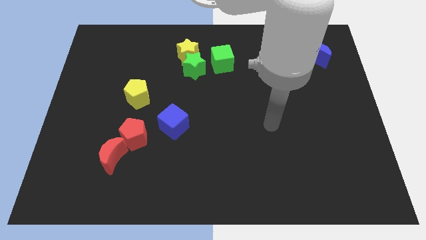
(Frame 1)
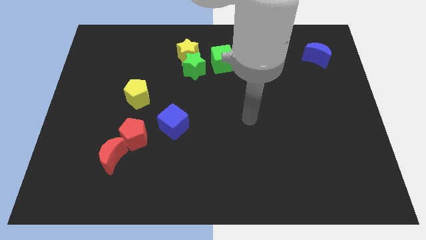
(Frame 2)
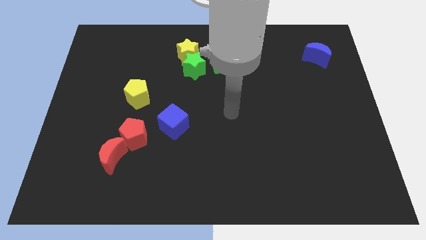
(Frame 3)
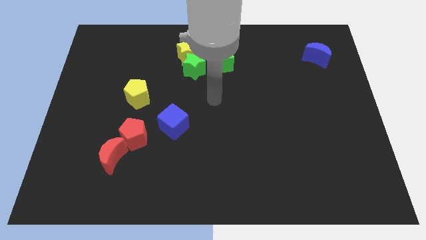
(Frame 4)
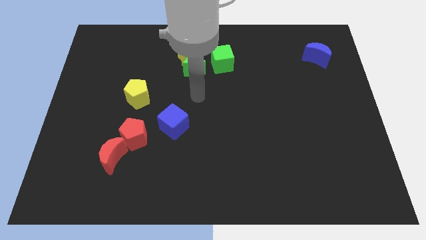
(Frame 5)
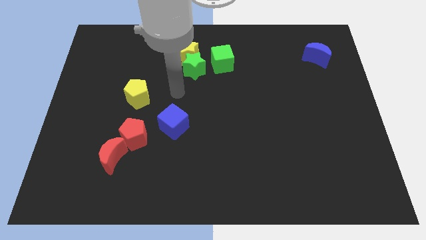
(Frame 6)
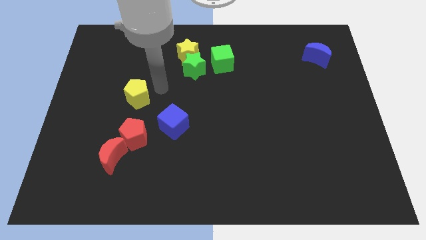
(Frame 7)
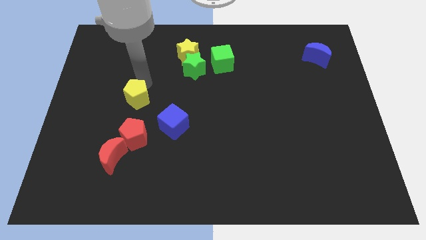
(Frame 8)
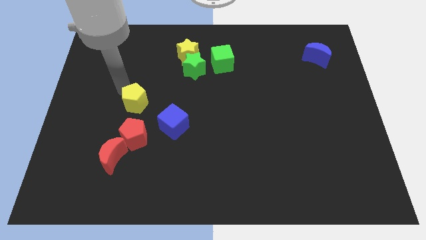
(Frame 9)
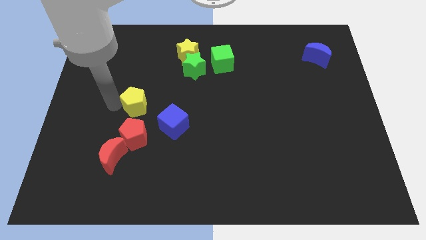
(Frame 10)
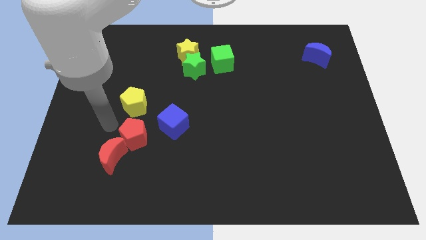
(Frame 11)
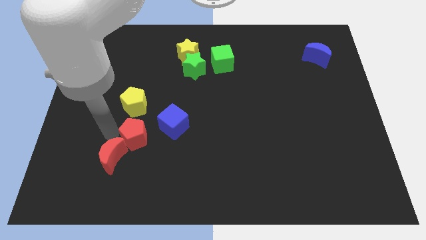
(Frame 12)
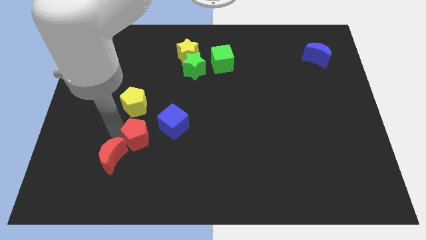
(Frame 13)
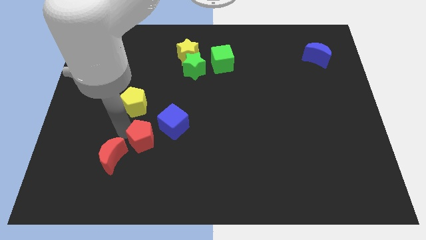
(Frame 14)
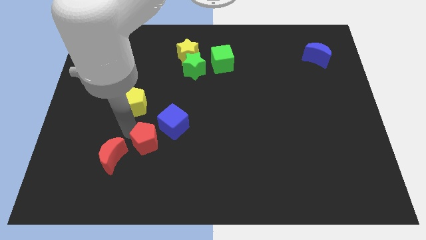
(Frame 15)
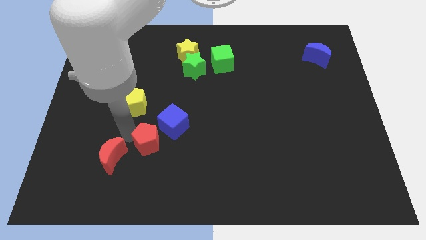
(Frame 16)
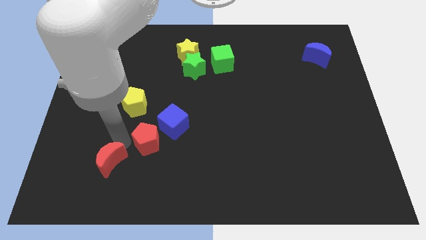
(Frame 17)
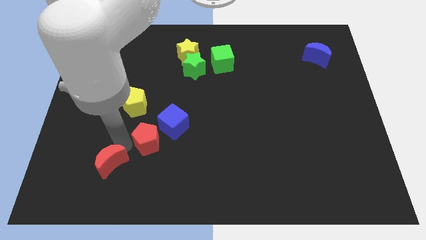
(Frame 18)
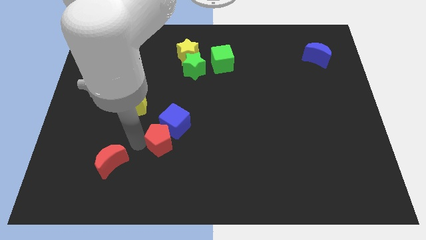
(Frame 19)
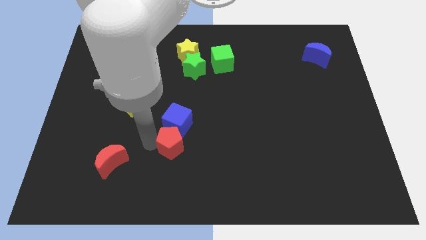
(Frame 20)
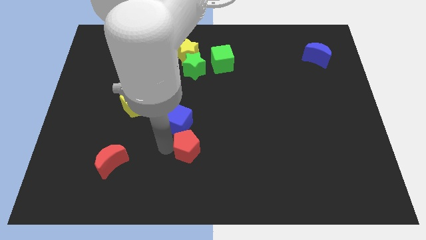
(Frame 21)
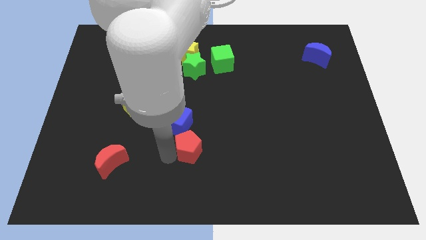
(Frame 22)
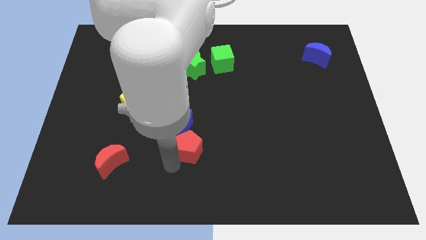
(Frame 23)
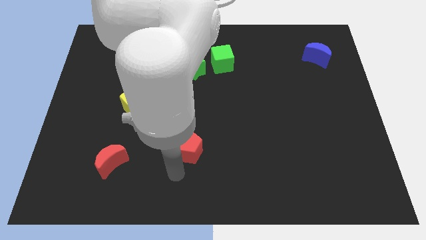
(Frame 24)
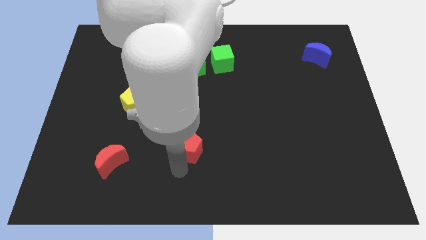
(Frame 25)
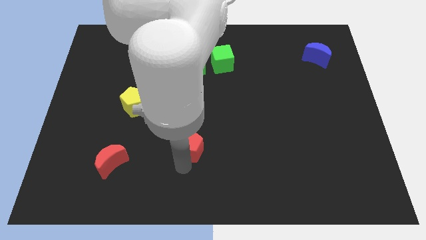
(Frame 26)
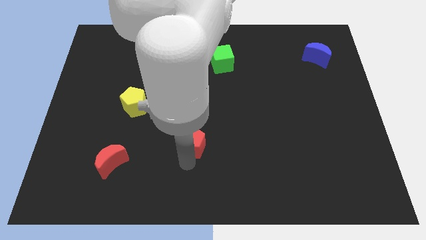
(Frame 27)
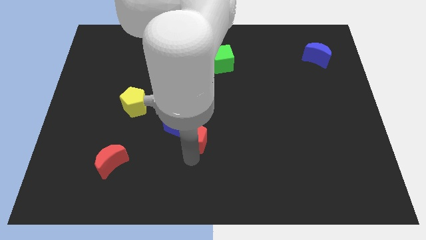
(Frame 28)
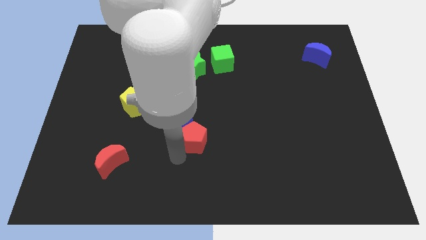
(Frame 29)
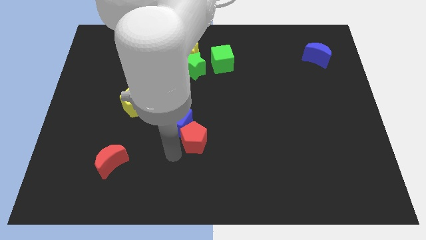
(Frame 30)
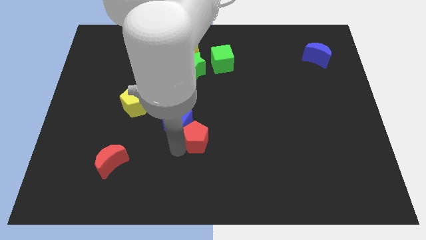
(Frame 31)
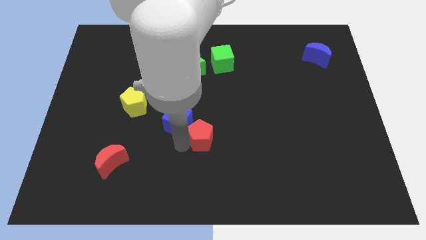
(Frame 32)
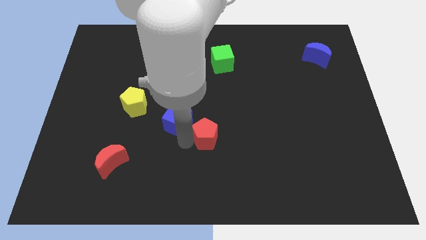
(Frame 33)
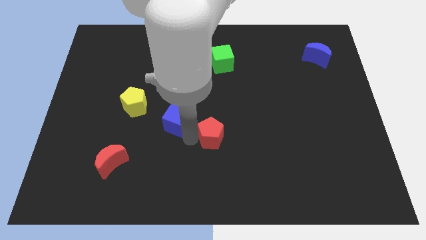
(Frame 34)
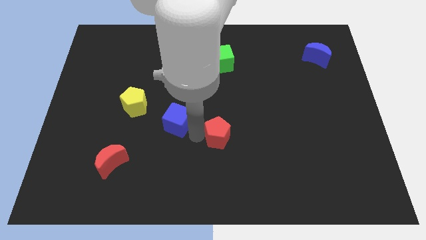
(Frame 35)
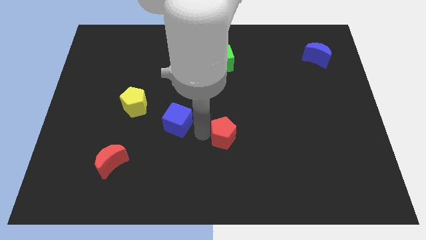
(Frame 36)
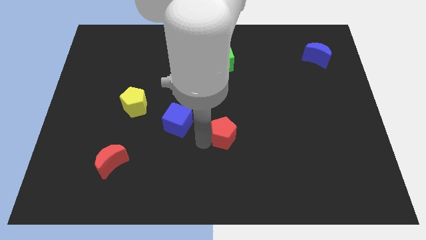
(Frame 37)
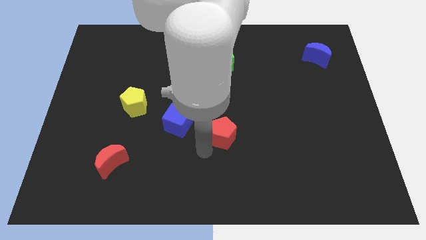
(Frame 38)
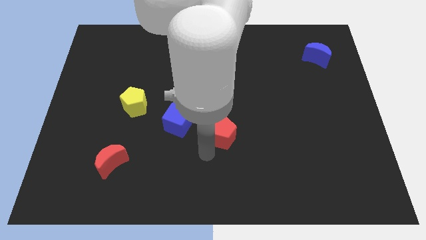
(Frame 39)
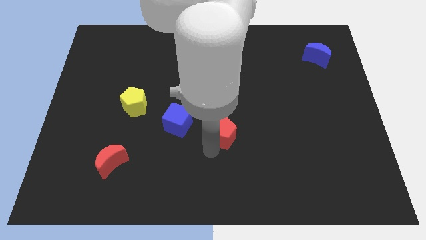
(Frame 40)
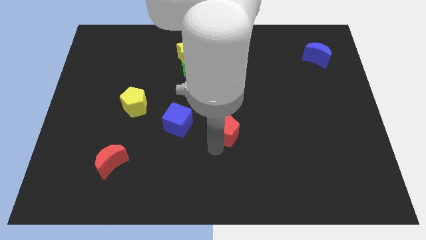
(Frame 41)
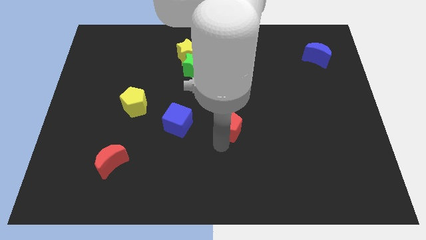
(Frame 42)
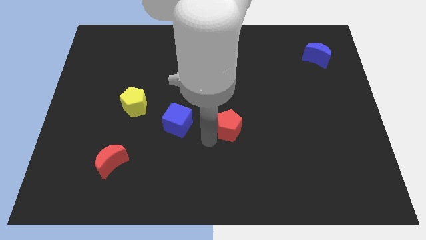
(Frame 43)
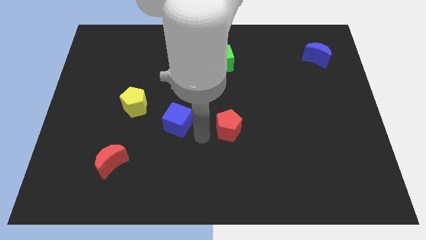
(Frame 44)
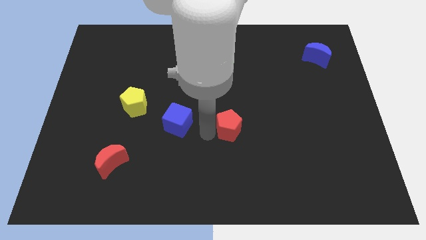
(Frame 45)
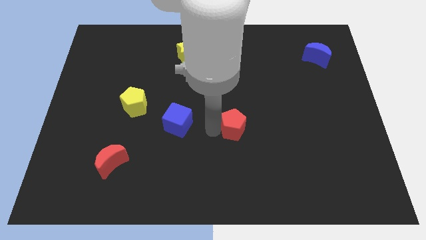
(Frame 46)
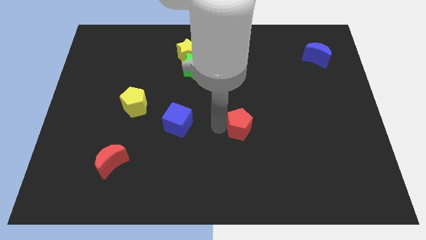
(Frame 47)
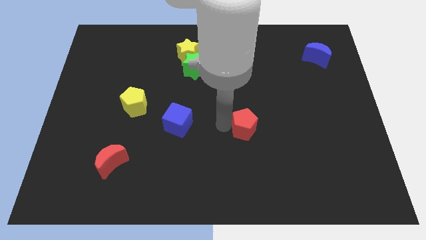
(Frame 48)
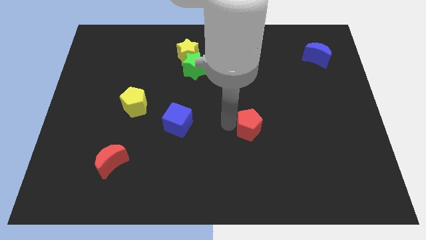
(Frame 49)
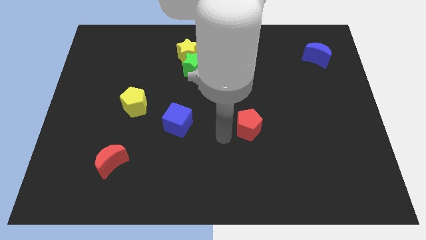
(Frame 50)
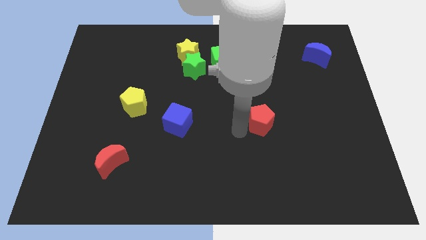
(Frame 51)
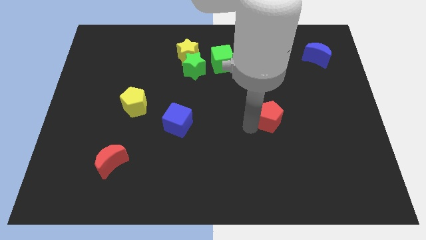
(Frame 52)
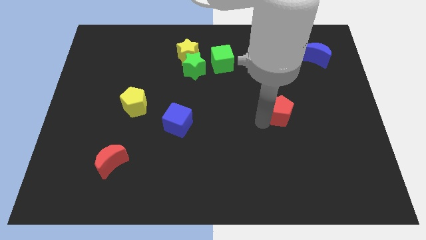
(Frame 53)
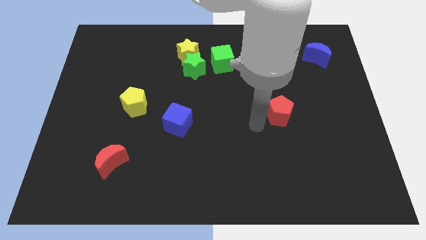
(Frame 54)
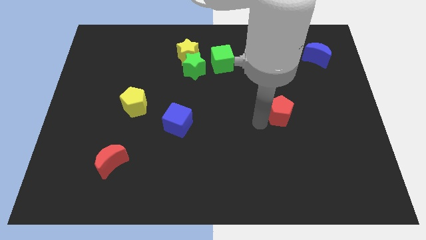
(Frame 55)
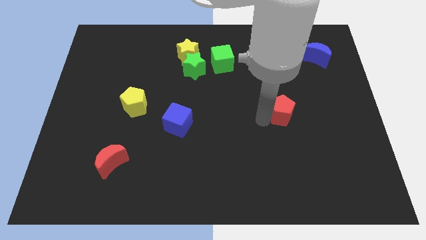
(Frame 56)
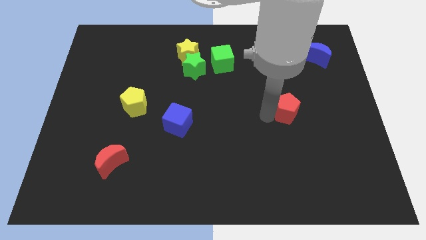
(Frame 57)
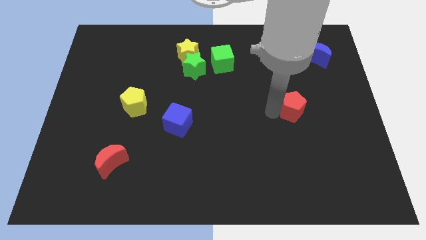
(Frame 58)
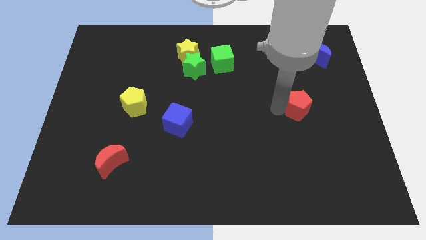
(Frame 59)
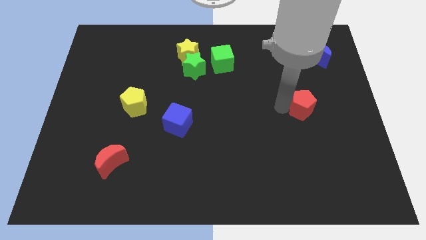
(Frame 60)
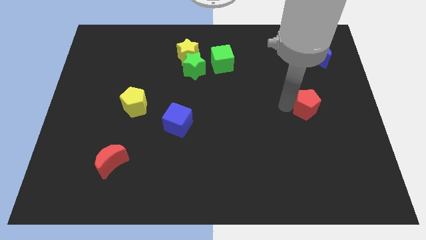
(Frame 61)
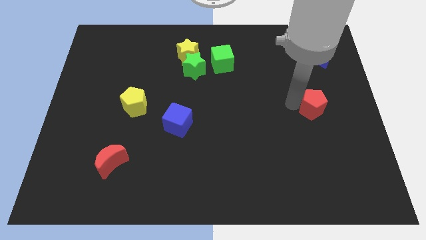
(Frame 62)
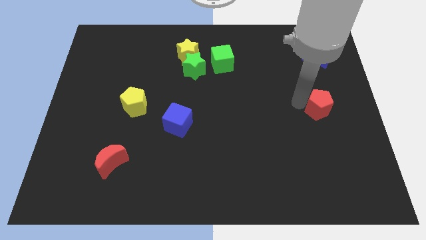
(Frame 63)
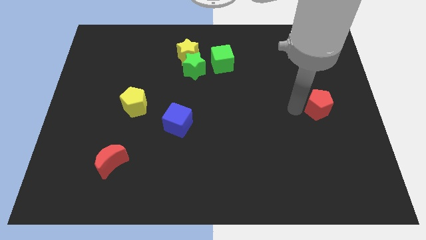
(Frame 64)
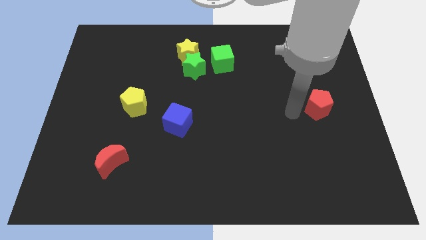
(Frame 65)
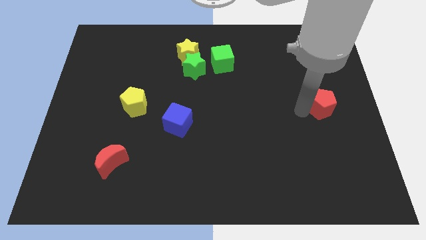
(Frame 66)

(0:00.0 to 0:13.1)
move the red pentagon to the right side of the board
